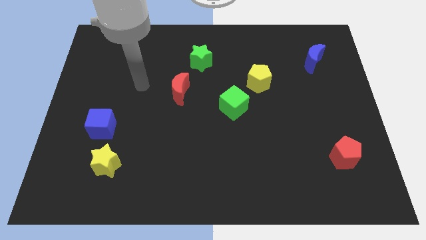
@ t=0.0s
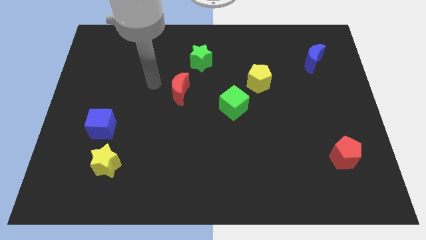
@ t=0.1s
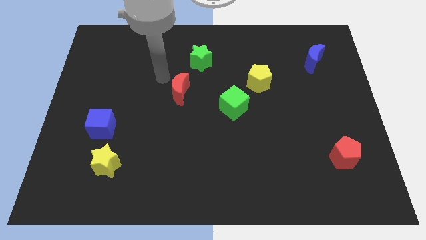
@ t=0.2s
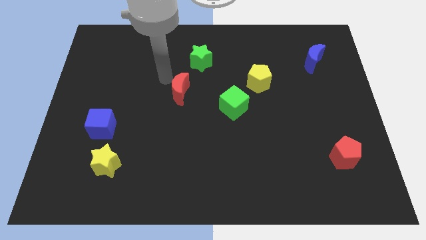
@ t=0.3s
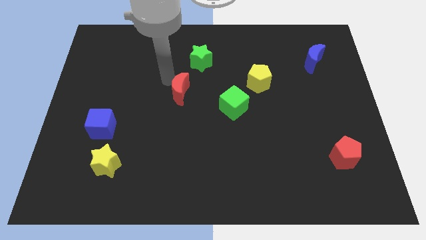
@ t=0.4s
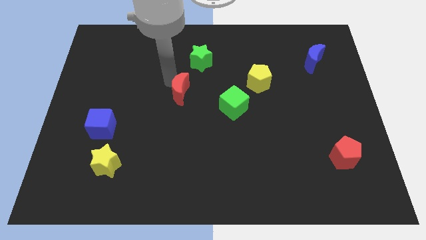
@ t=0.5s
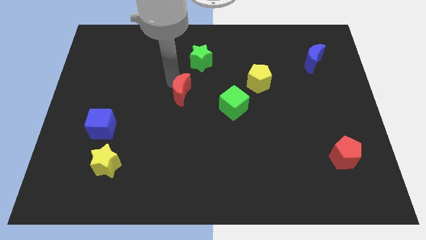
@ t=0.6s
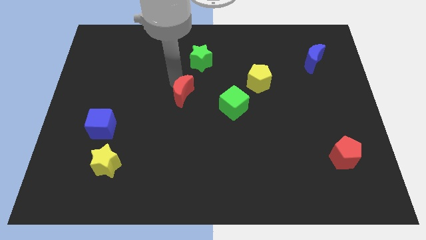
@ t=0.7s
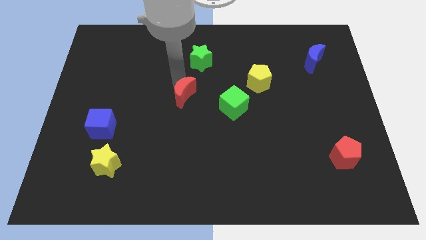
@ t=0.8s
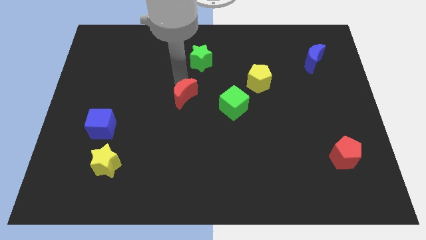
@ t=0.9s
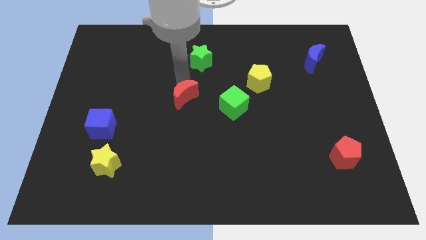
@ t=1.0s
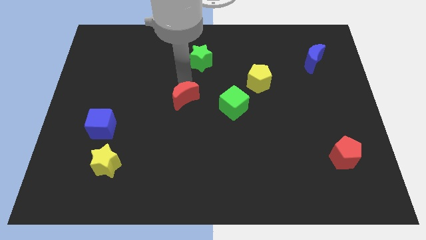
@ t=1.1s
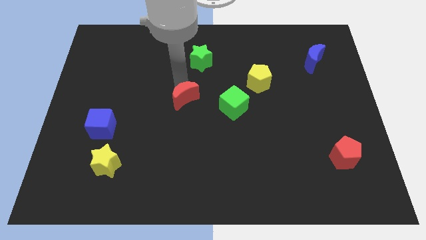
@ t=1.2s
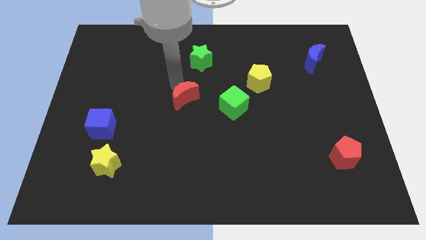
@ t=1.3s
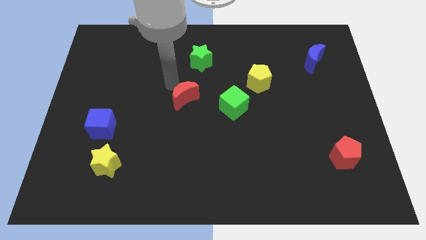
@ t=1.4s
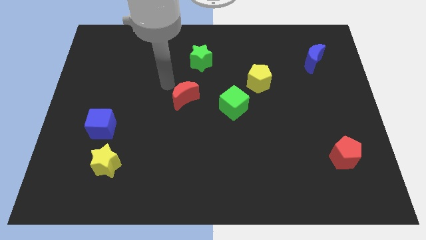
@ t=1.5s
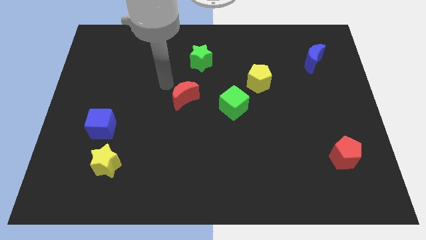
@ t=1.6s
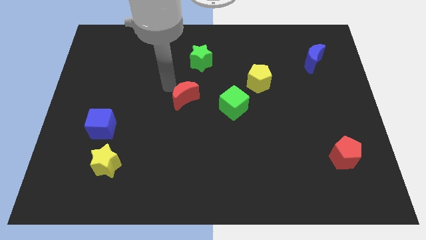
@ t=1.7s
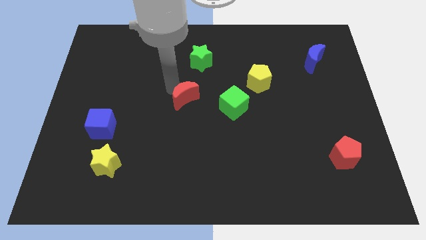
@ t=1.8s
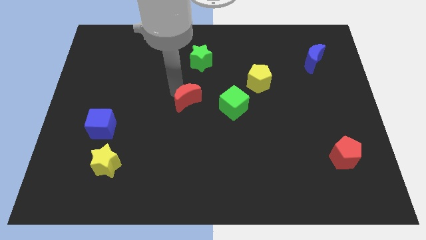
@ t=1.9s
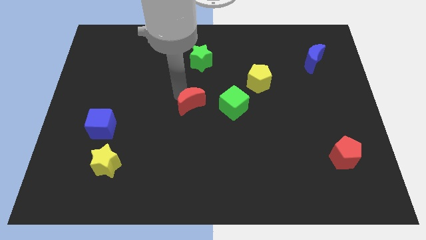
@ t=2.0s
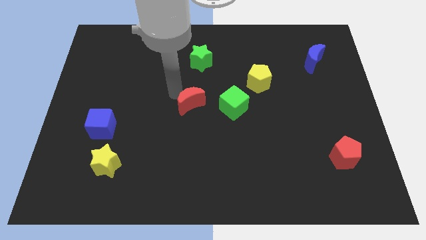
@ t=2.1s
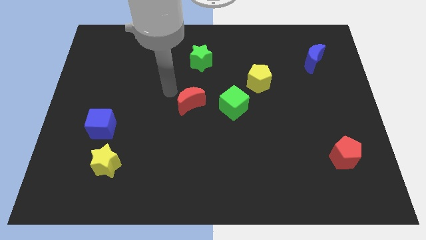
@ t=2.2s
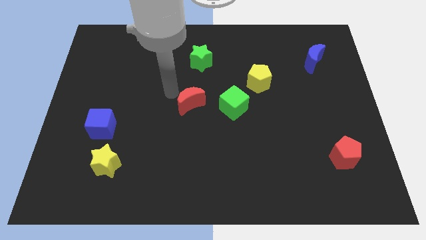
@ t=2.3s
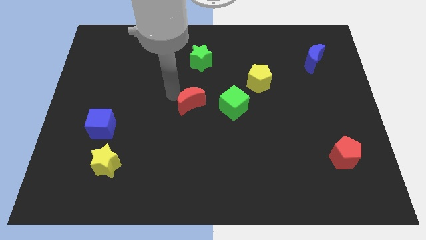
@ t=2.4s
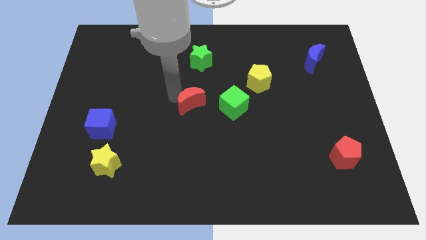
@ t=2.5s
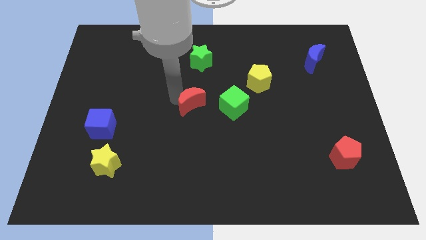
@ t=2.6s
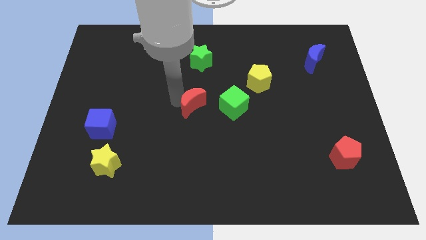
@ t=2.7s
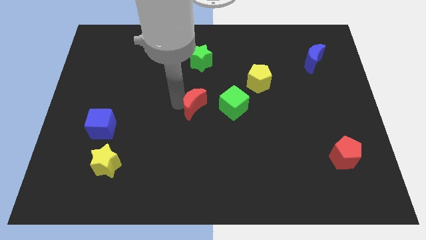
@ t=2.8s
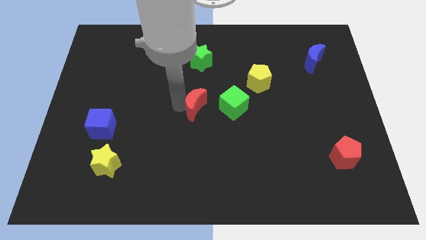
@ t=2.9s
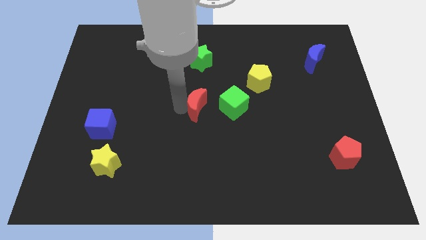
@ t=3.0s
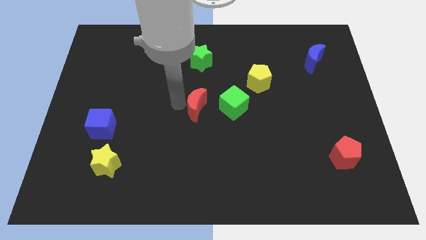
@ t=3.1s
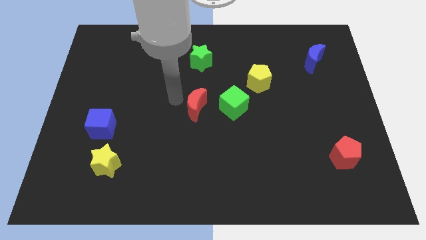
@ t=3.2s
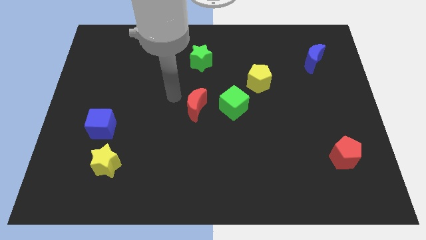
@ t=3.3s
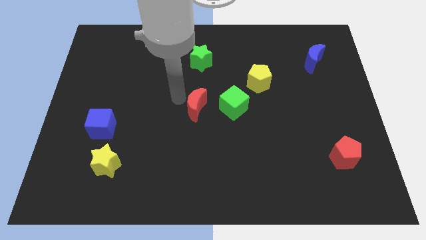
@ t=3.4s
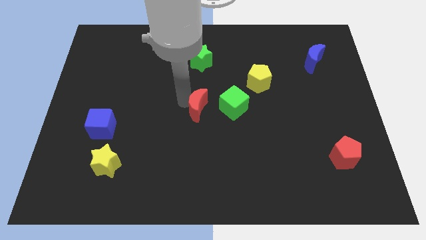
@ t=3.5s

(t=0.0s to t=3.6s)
move the red moon diagonally down and to the right somewhat

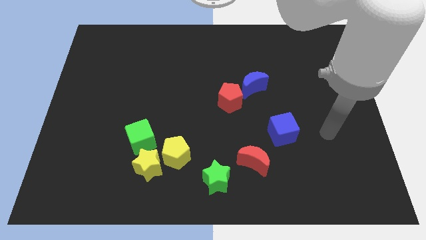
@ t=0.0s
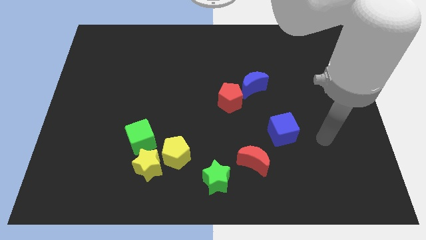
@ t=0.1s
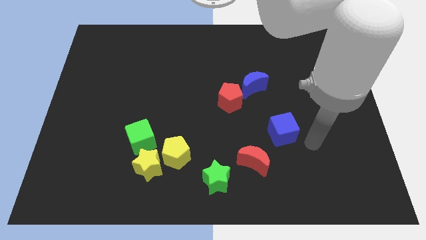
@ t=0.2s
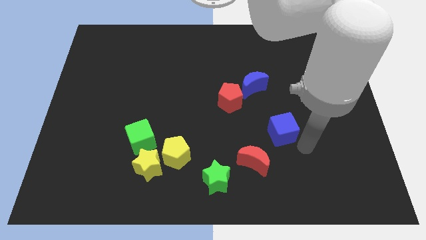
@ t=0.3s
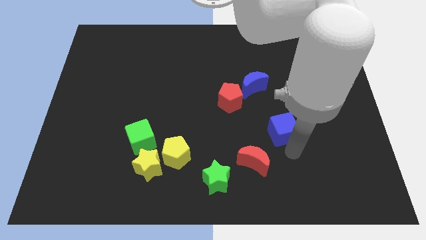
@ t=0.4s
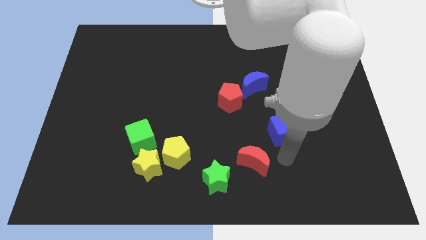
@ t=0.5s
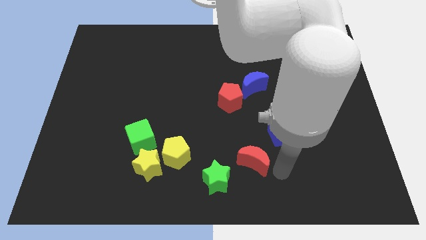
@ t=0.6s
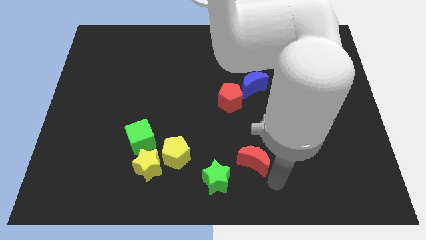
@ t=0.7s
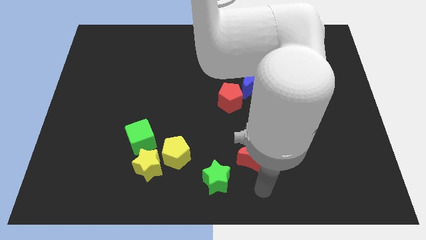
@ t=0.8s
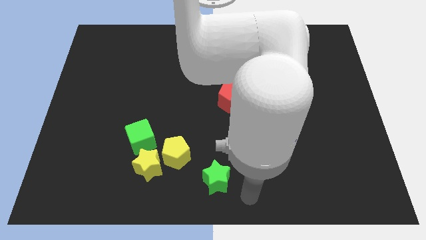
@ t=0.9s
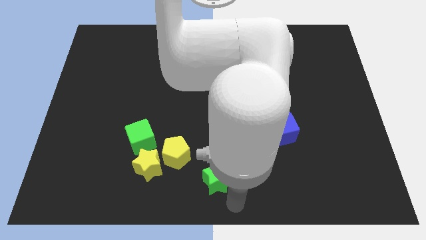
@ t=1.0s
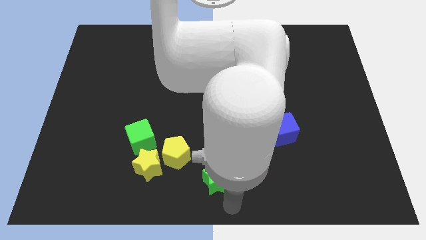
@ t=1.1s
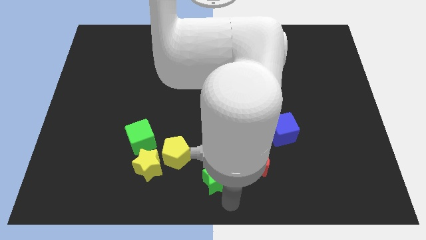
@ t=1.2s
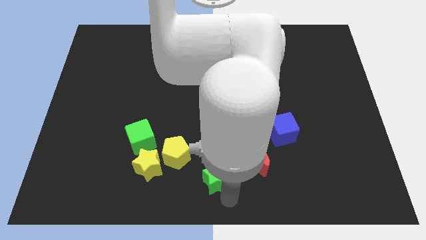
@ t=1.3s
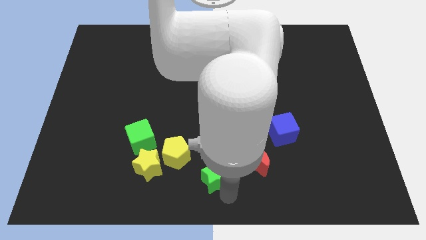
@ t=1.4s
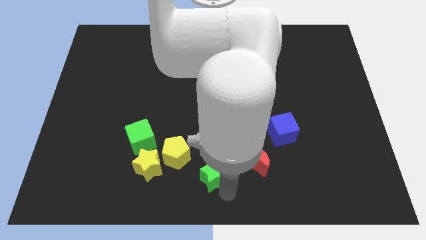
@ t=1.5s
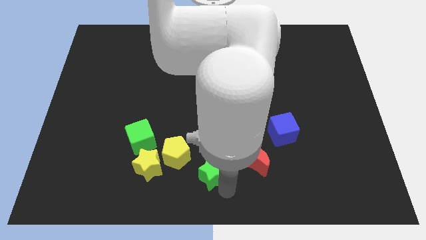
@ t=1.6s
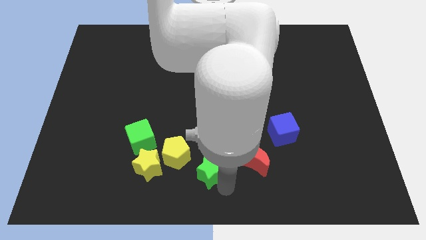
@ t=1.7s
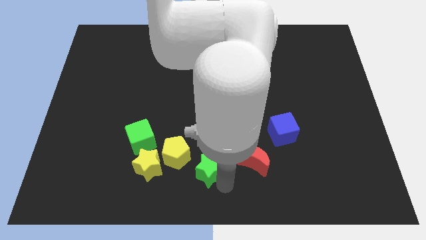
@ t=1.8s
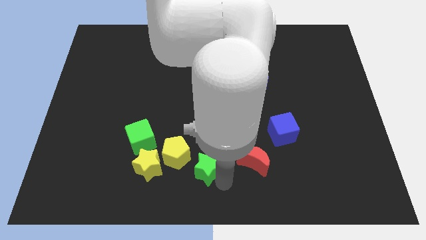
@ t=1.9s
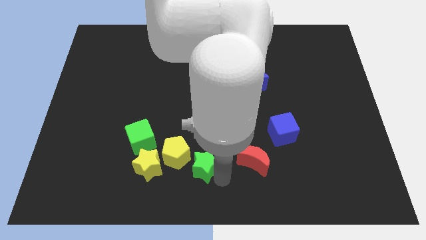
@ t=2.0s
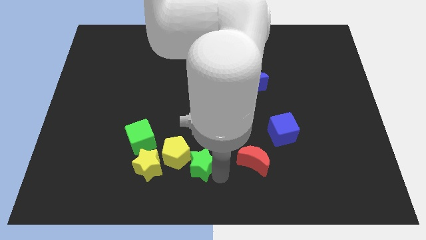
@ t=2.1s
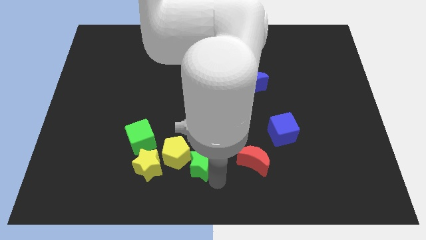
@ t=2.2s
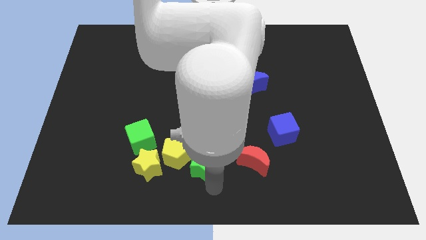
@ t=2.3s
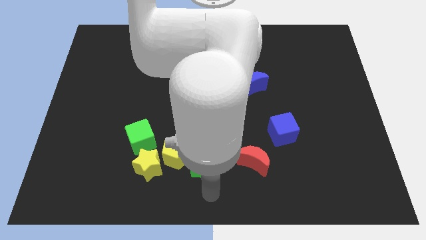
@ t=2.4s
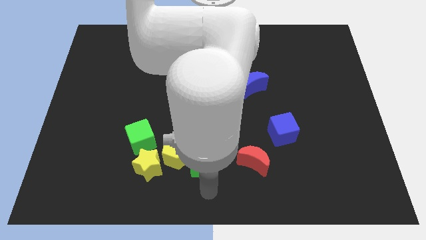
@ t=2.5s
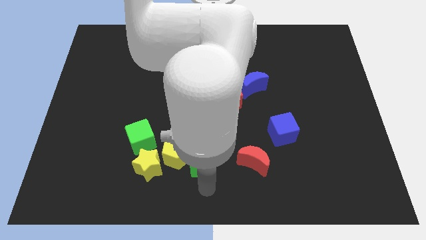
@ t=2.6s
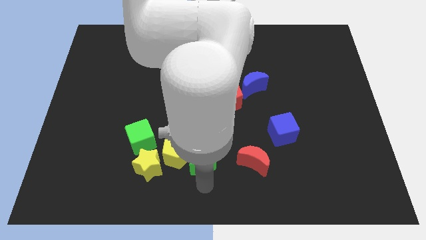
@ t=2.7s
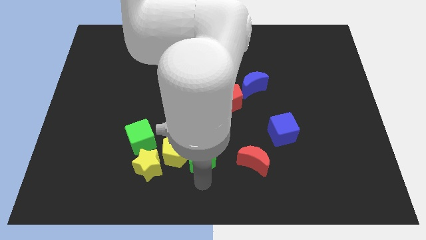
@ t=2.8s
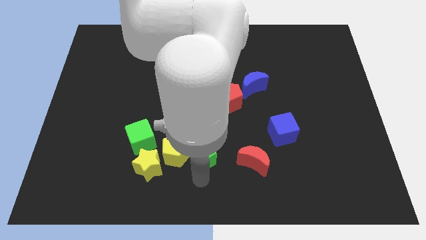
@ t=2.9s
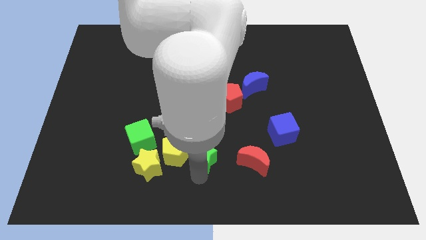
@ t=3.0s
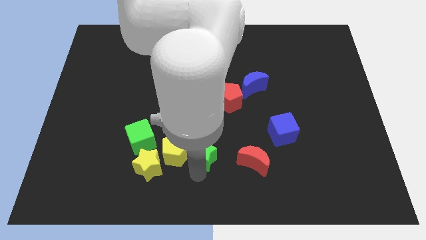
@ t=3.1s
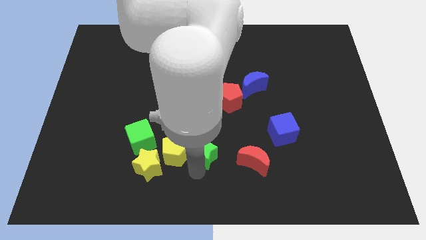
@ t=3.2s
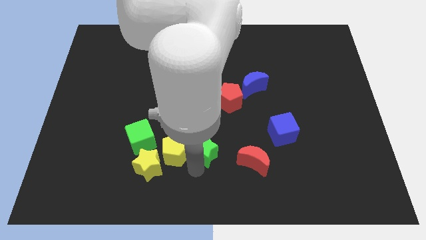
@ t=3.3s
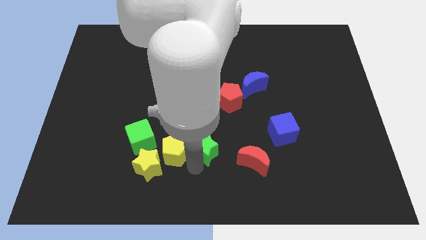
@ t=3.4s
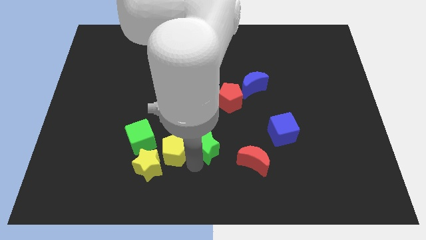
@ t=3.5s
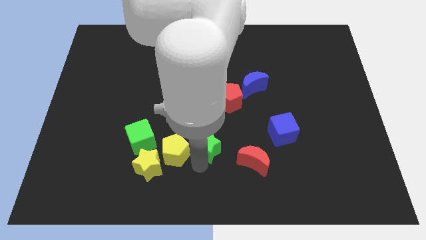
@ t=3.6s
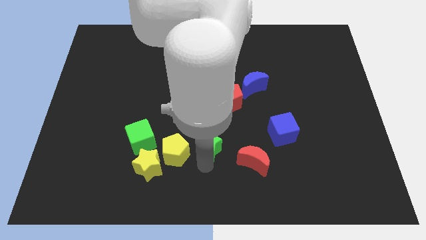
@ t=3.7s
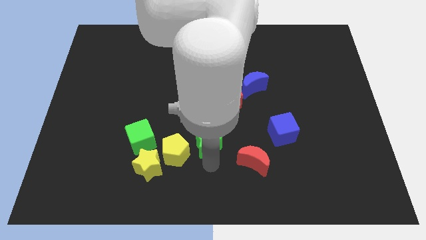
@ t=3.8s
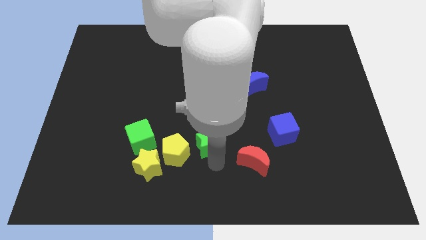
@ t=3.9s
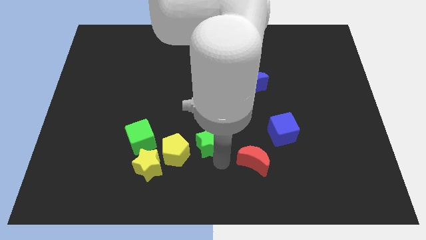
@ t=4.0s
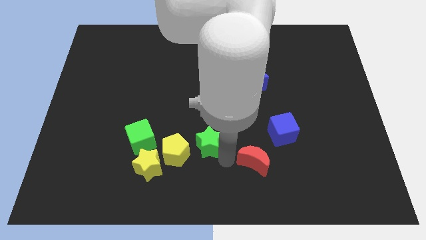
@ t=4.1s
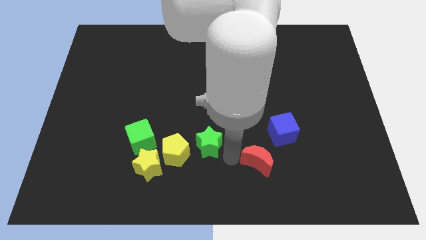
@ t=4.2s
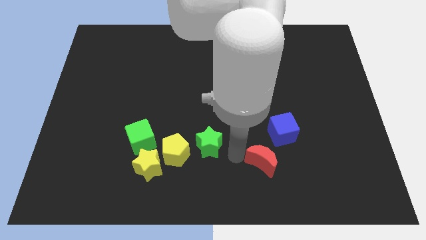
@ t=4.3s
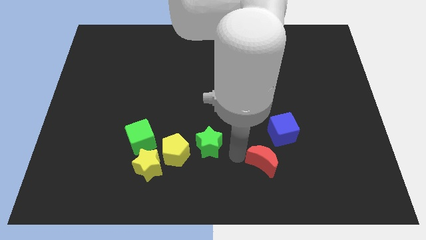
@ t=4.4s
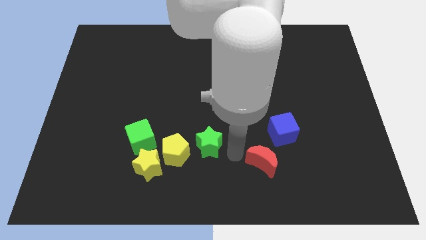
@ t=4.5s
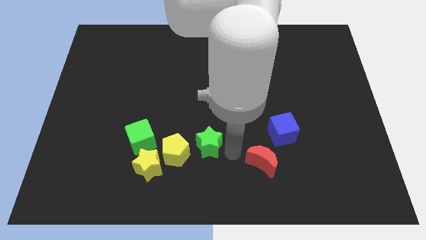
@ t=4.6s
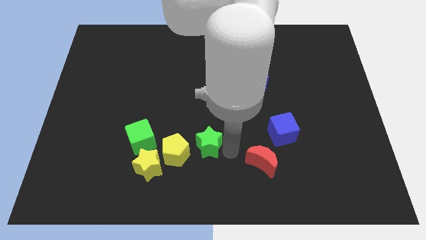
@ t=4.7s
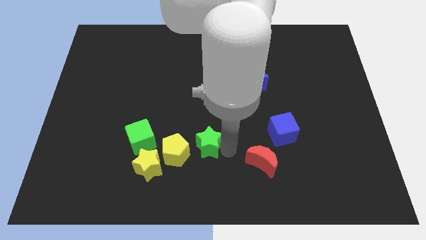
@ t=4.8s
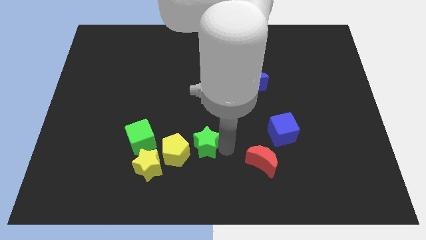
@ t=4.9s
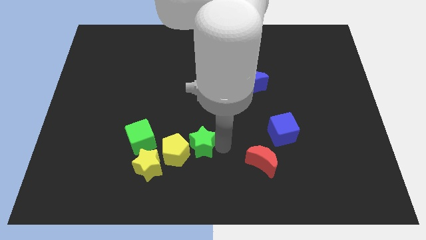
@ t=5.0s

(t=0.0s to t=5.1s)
slightly push the green star upwards and left diagonally
